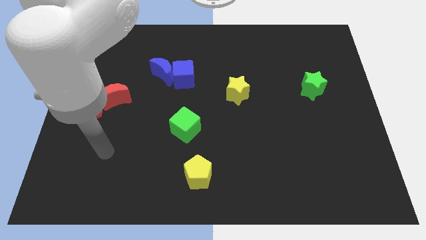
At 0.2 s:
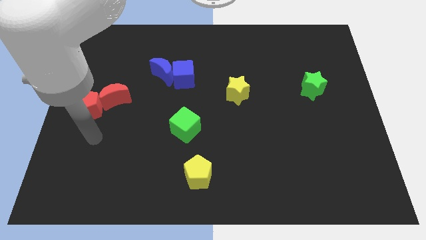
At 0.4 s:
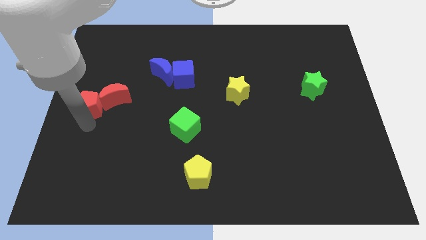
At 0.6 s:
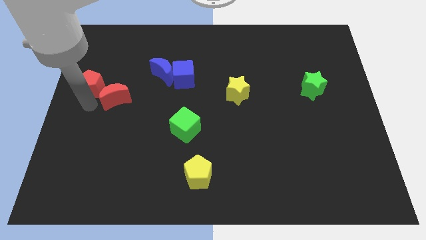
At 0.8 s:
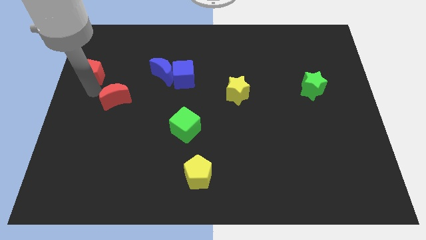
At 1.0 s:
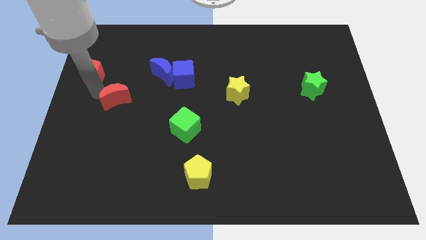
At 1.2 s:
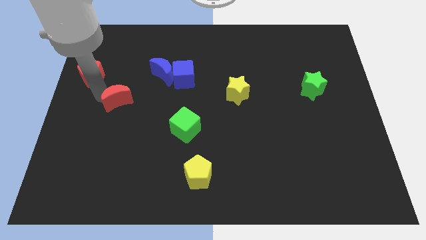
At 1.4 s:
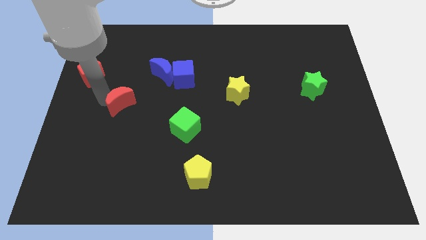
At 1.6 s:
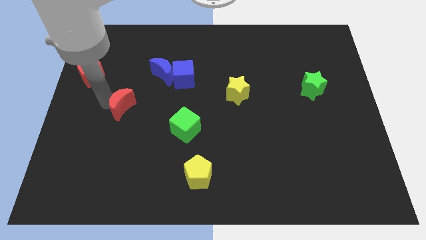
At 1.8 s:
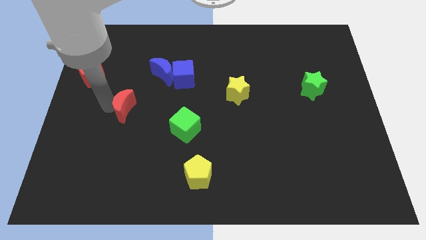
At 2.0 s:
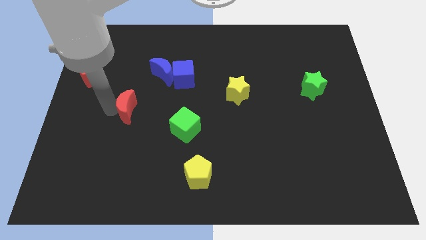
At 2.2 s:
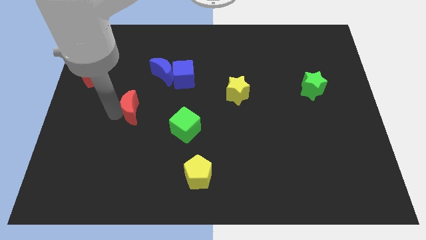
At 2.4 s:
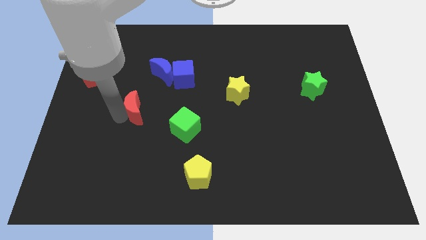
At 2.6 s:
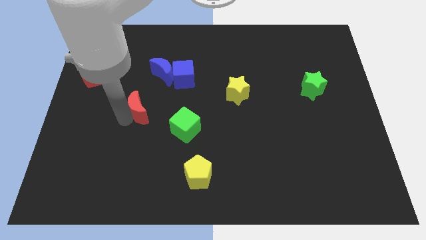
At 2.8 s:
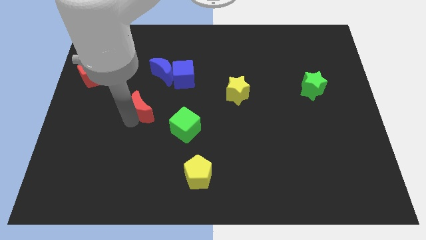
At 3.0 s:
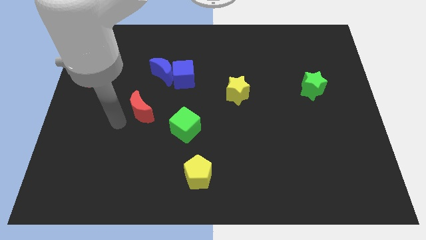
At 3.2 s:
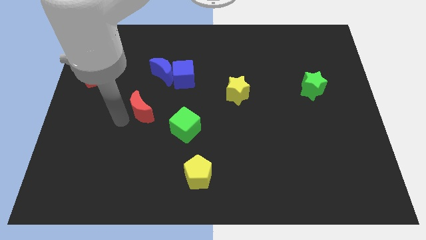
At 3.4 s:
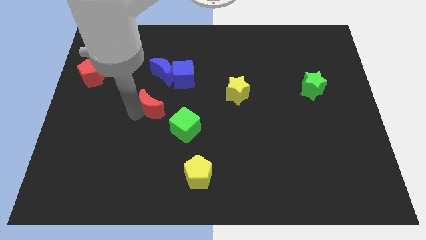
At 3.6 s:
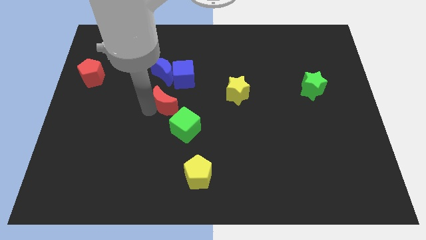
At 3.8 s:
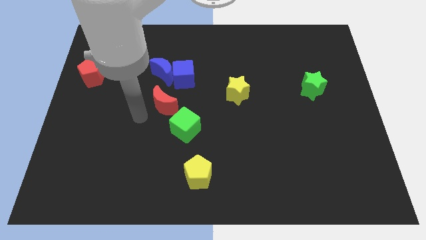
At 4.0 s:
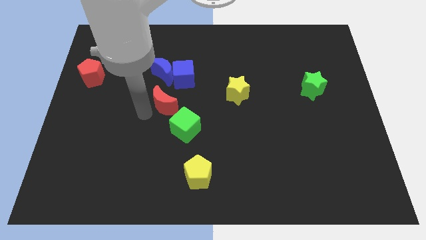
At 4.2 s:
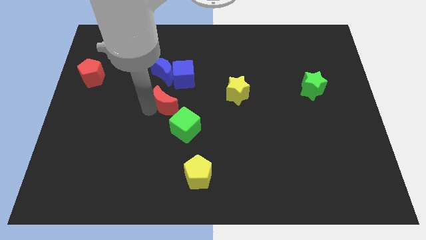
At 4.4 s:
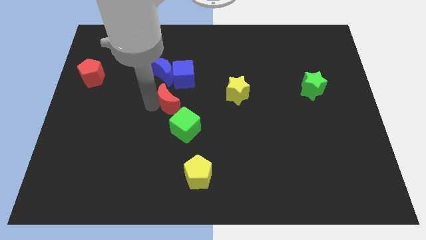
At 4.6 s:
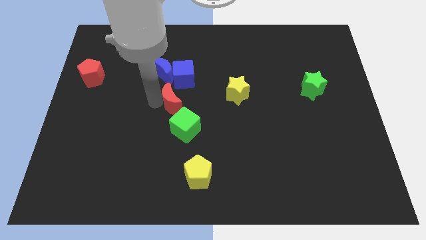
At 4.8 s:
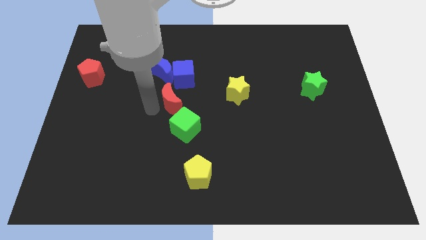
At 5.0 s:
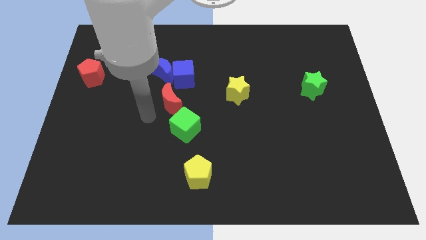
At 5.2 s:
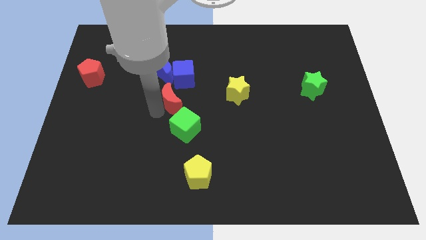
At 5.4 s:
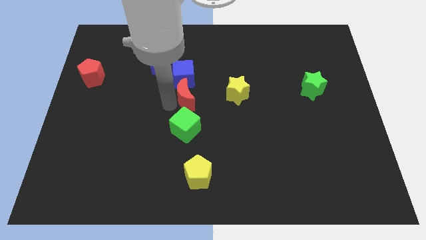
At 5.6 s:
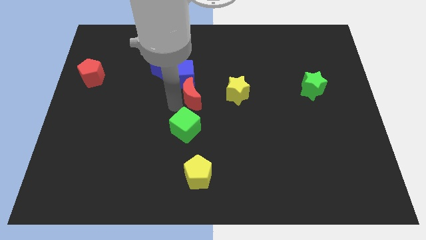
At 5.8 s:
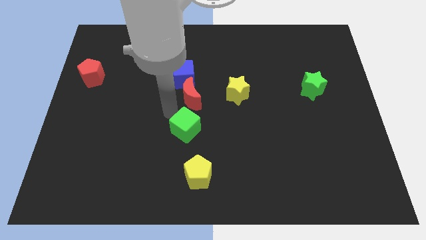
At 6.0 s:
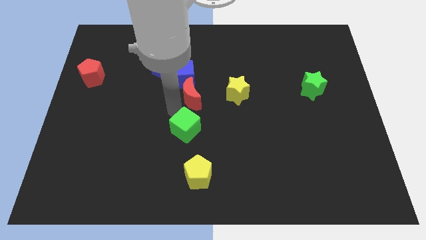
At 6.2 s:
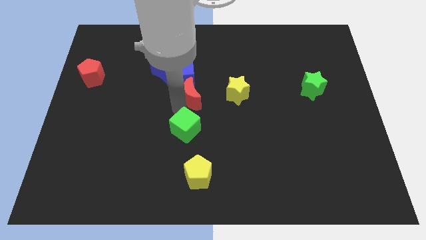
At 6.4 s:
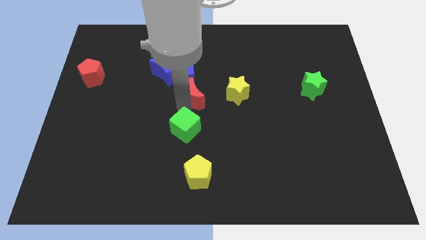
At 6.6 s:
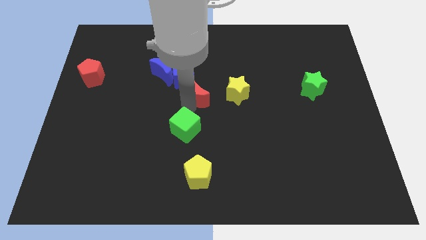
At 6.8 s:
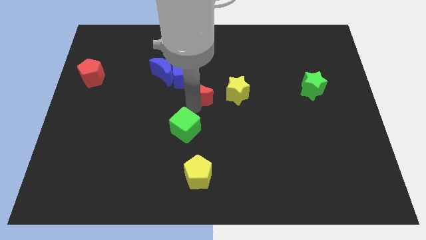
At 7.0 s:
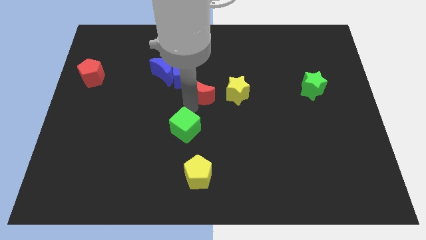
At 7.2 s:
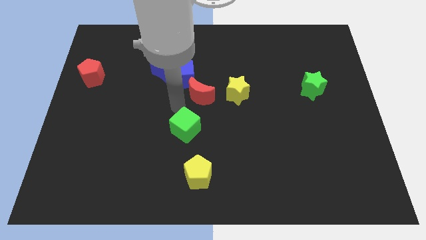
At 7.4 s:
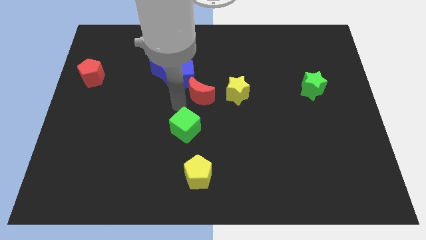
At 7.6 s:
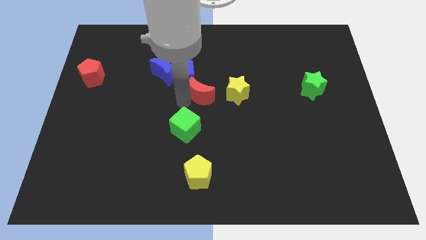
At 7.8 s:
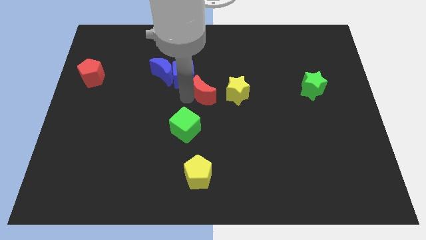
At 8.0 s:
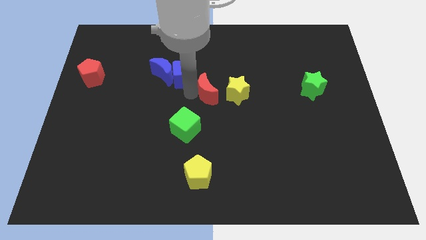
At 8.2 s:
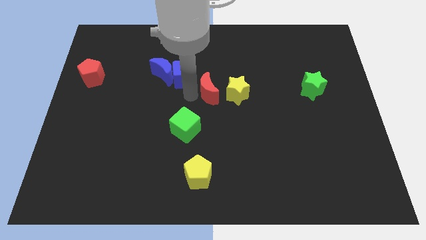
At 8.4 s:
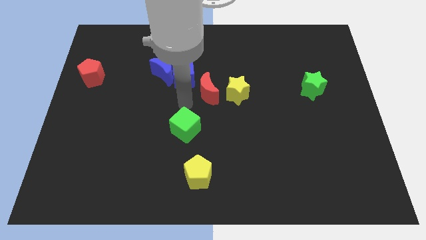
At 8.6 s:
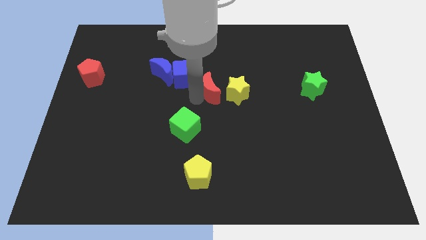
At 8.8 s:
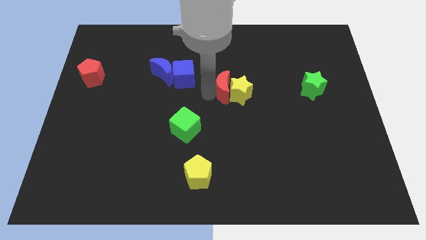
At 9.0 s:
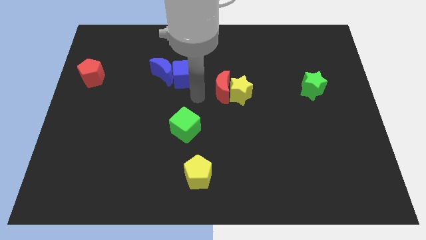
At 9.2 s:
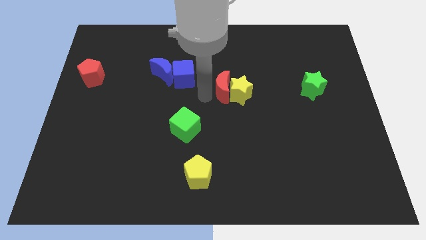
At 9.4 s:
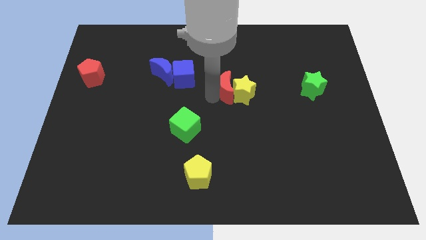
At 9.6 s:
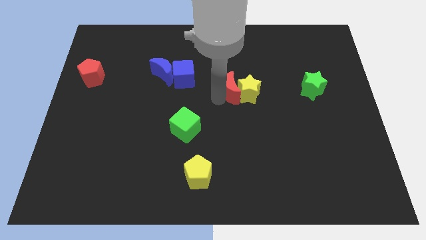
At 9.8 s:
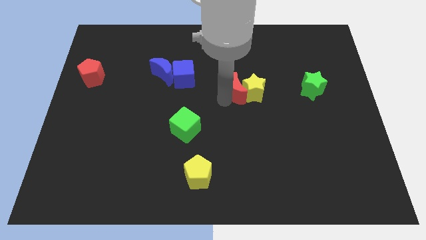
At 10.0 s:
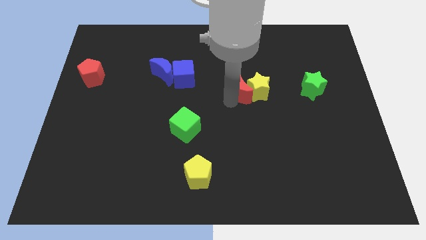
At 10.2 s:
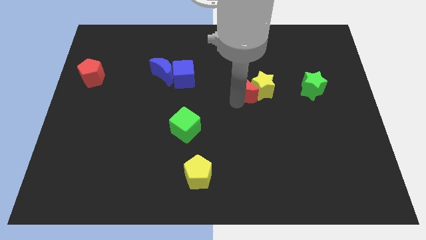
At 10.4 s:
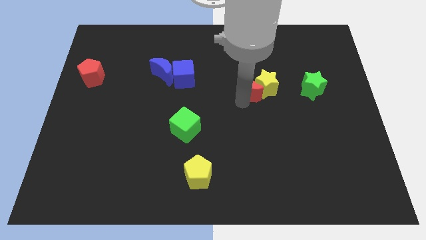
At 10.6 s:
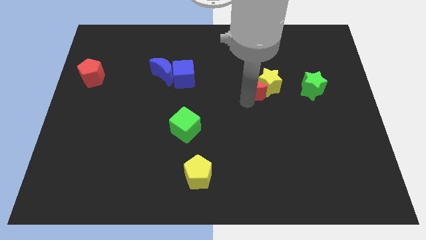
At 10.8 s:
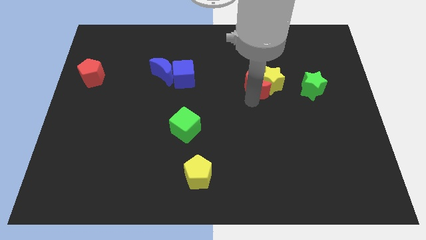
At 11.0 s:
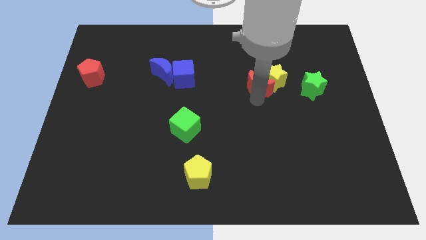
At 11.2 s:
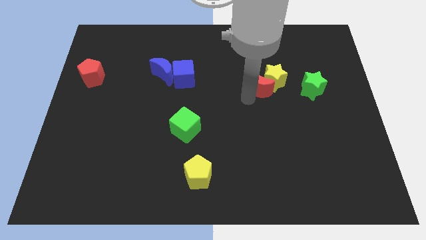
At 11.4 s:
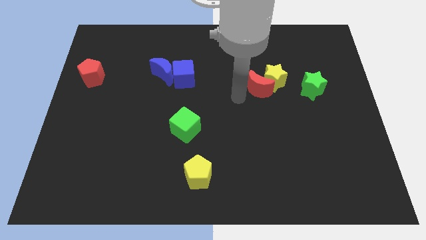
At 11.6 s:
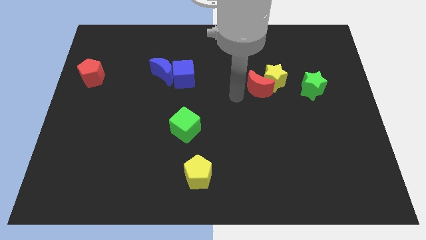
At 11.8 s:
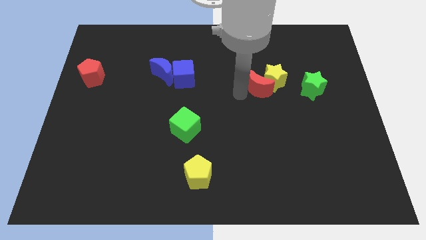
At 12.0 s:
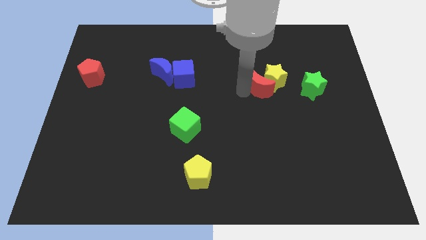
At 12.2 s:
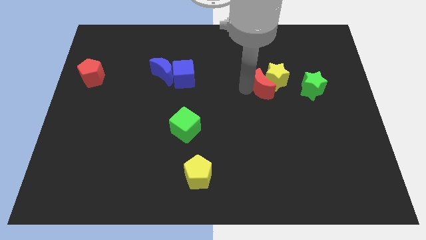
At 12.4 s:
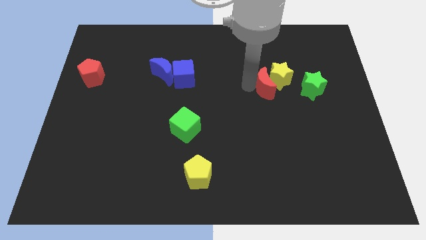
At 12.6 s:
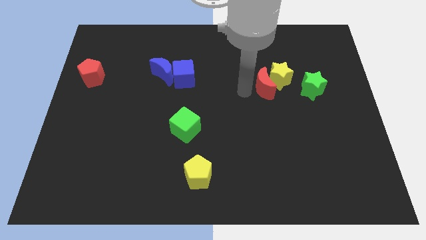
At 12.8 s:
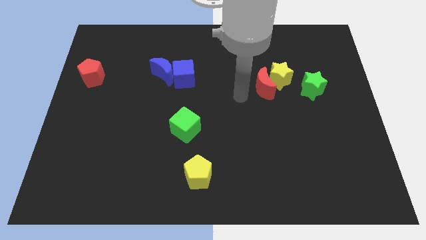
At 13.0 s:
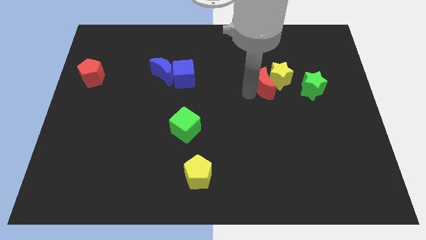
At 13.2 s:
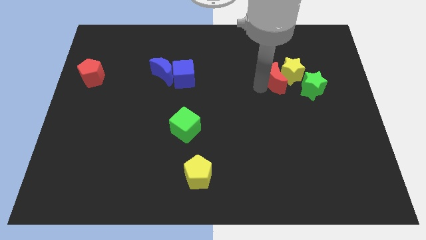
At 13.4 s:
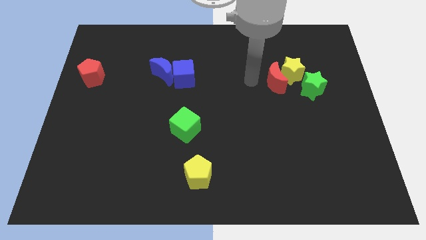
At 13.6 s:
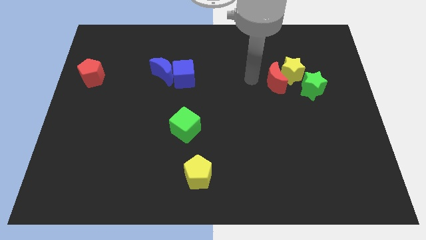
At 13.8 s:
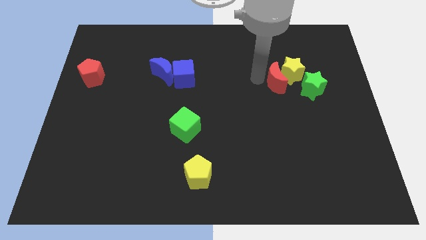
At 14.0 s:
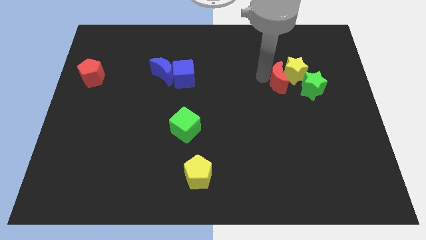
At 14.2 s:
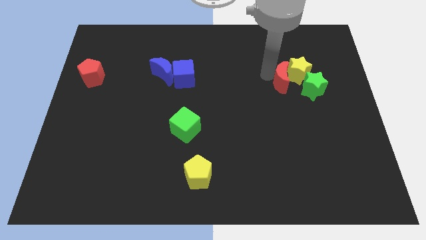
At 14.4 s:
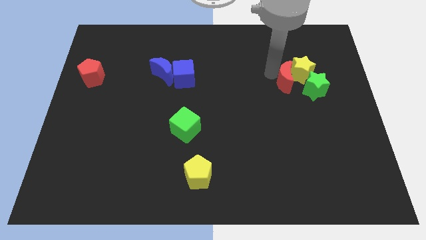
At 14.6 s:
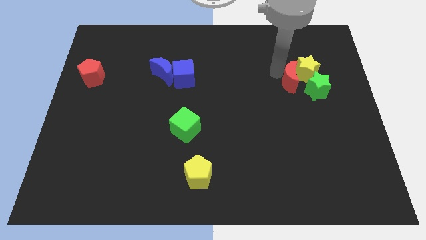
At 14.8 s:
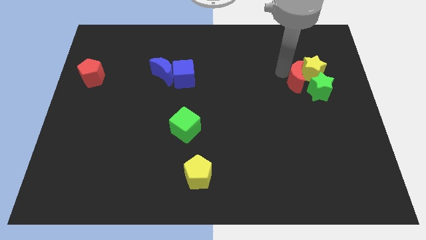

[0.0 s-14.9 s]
slide the red moon towards the green star
